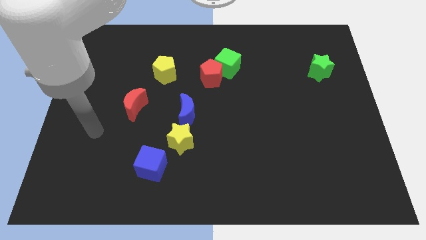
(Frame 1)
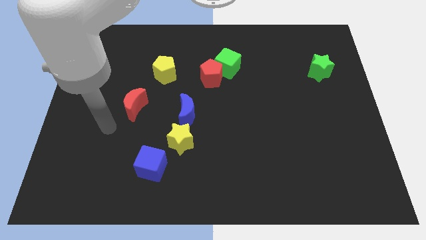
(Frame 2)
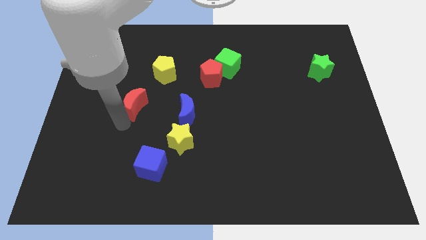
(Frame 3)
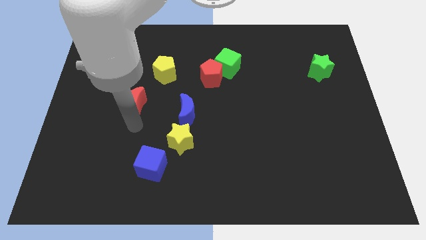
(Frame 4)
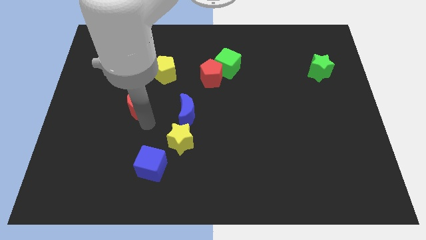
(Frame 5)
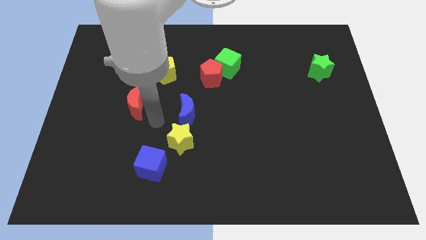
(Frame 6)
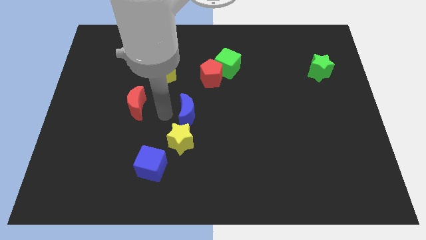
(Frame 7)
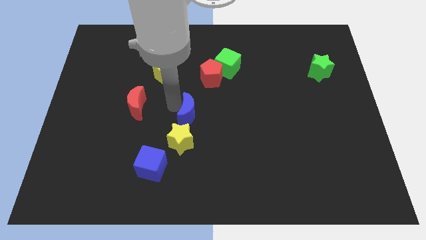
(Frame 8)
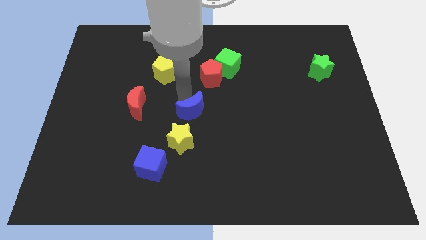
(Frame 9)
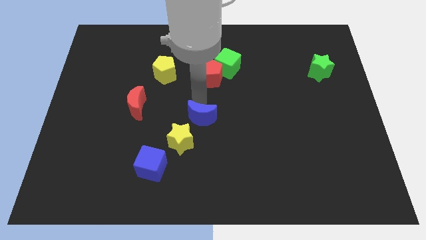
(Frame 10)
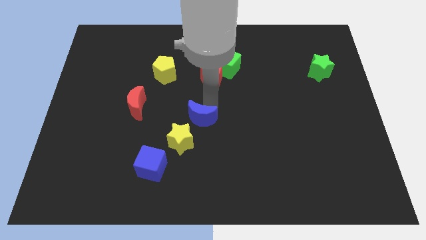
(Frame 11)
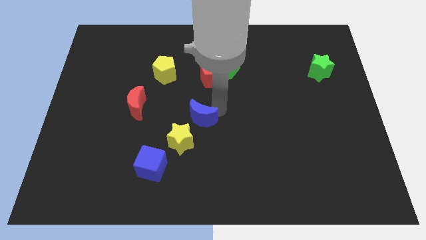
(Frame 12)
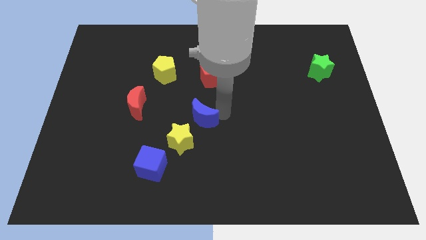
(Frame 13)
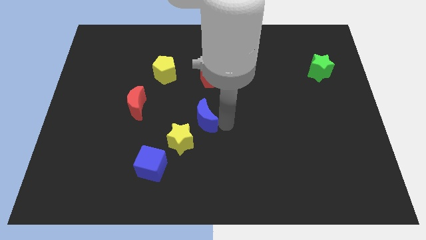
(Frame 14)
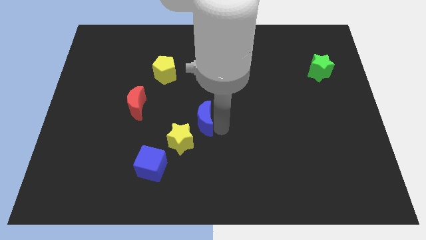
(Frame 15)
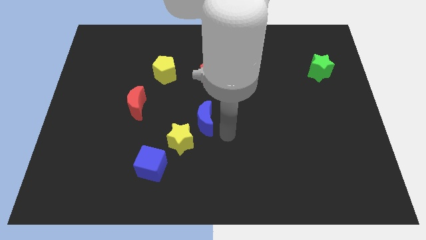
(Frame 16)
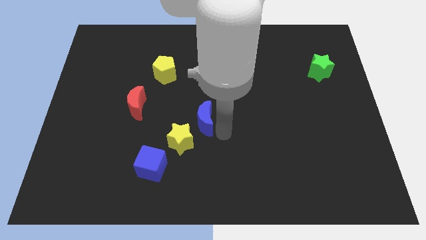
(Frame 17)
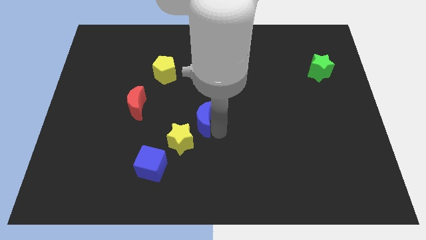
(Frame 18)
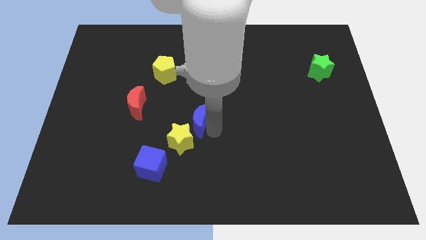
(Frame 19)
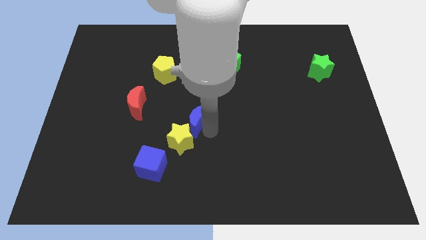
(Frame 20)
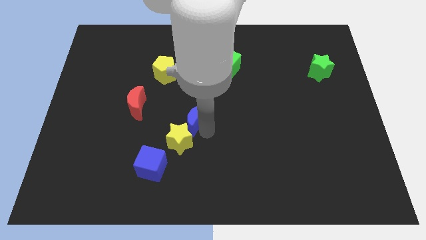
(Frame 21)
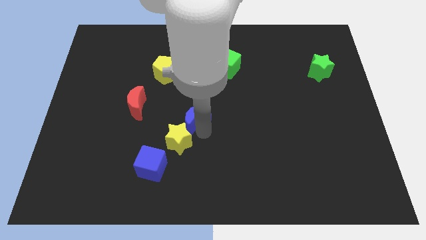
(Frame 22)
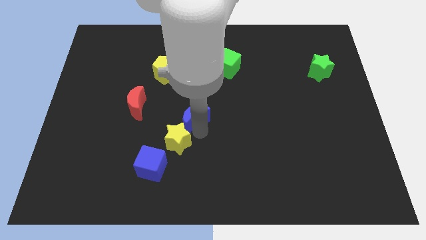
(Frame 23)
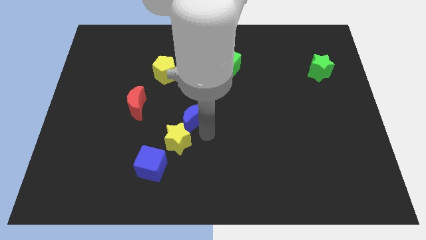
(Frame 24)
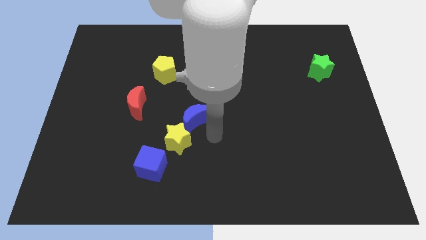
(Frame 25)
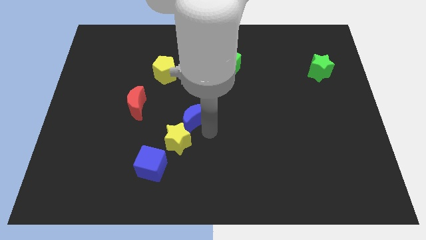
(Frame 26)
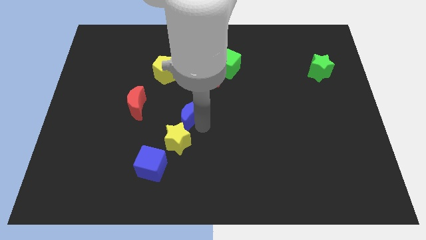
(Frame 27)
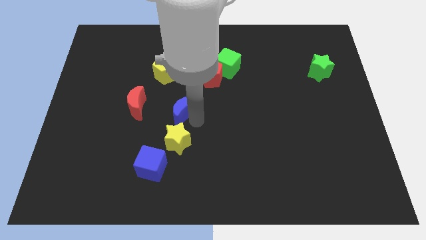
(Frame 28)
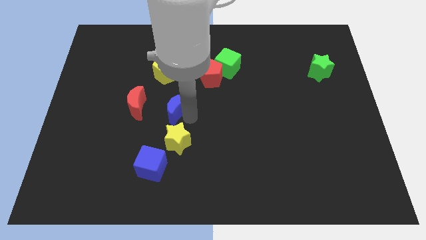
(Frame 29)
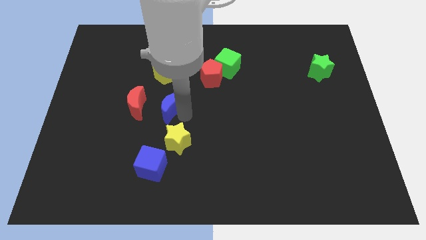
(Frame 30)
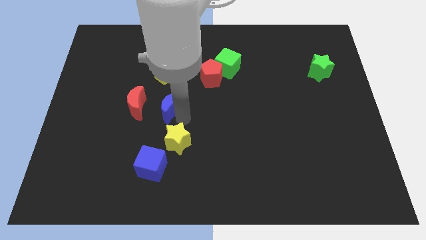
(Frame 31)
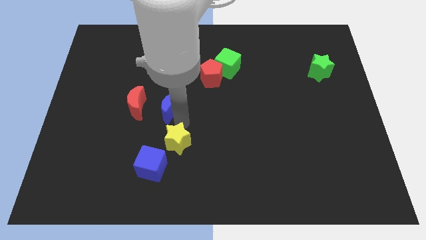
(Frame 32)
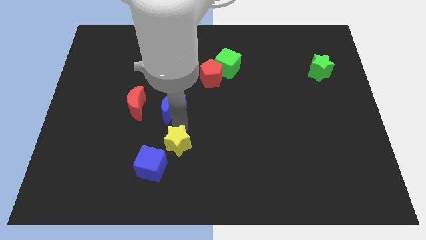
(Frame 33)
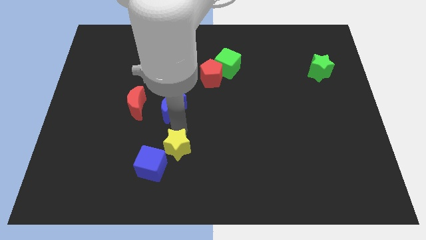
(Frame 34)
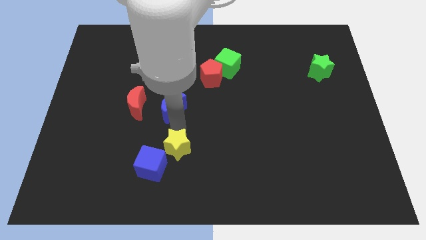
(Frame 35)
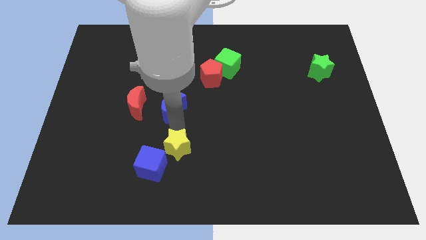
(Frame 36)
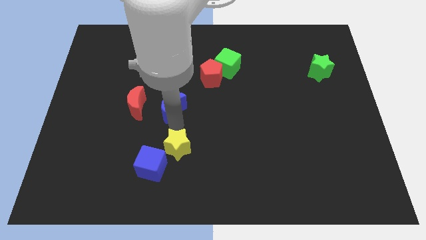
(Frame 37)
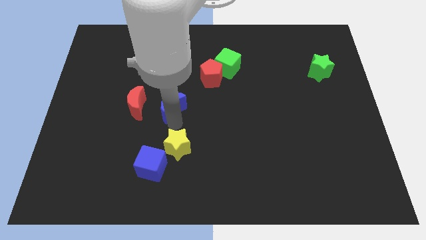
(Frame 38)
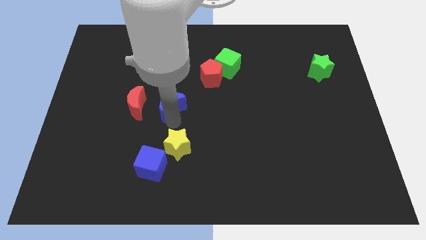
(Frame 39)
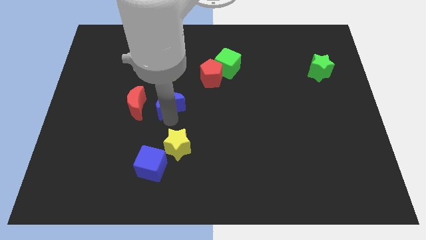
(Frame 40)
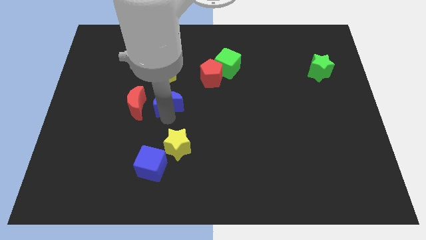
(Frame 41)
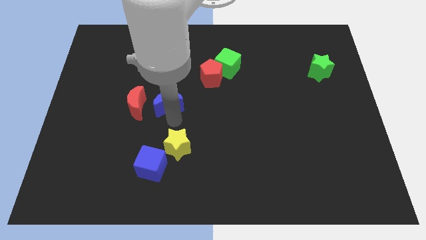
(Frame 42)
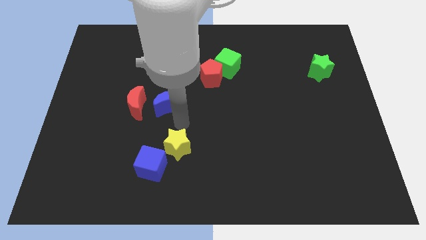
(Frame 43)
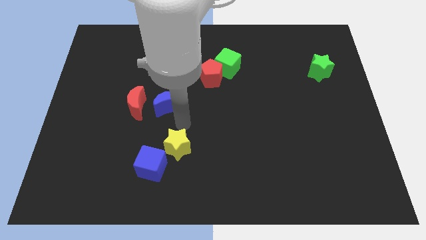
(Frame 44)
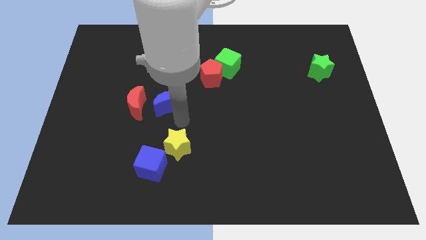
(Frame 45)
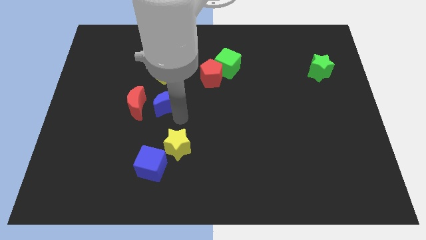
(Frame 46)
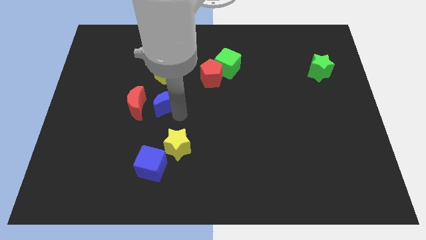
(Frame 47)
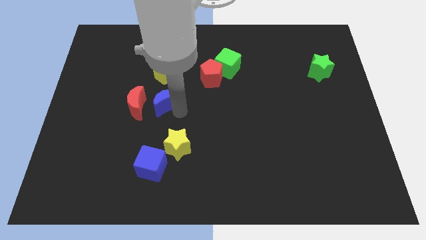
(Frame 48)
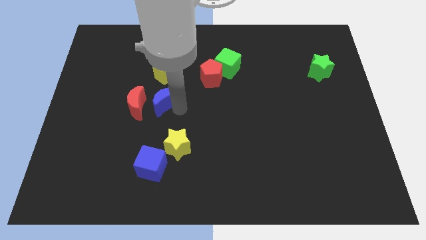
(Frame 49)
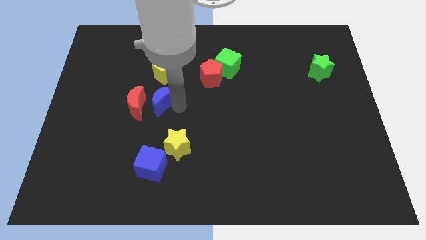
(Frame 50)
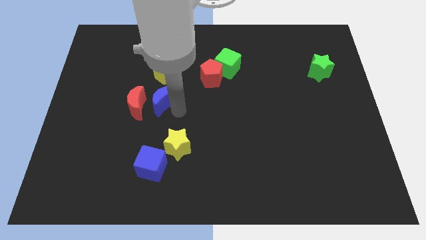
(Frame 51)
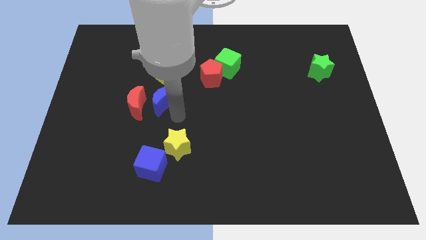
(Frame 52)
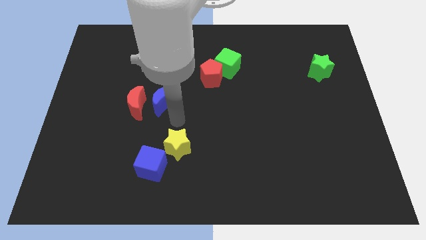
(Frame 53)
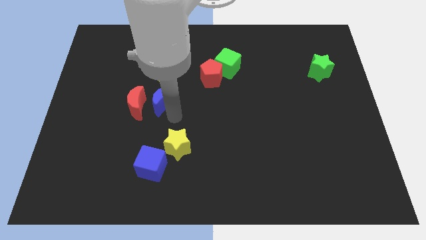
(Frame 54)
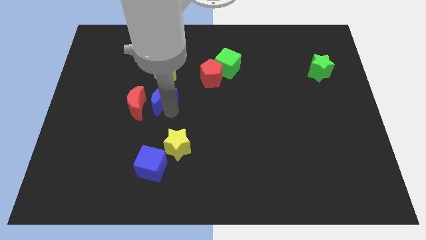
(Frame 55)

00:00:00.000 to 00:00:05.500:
slightly push the blue moon upwards and to the left diagonally

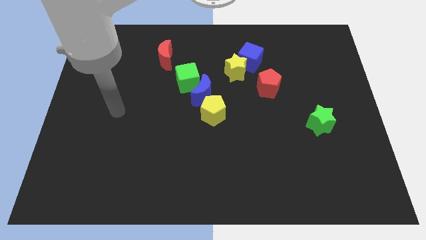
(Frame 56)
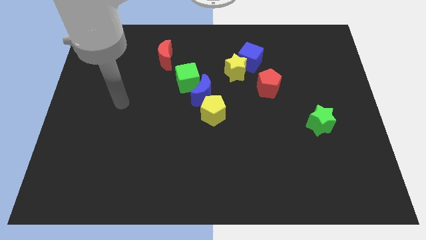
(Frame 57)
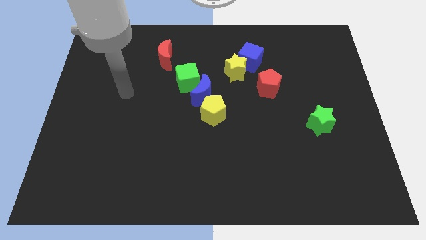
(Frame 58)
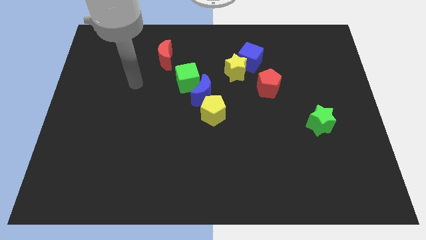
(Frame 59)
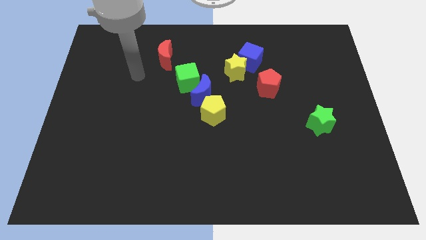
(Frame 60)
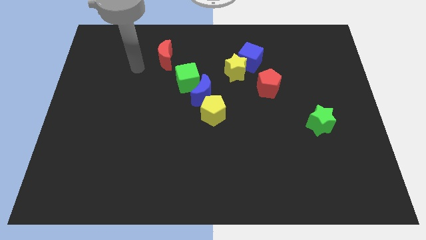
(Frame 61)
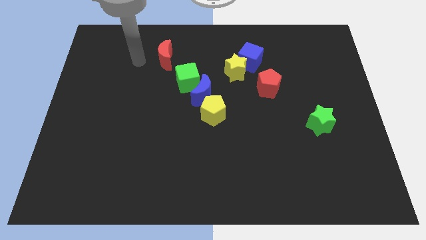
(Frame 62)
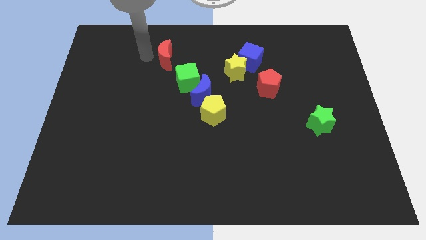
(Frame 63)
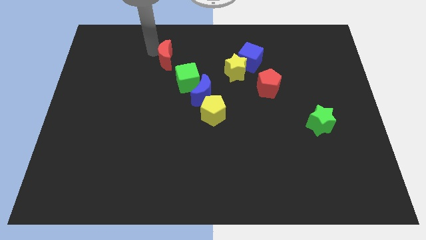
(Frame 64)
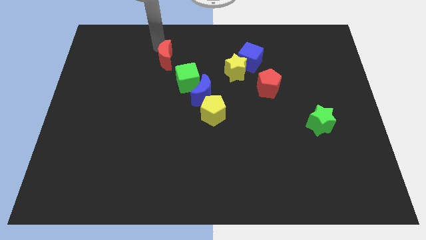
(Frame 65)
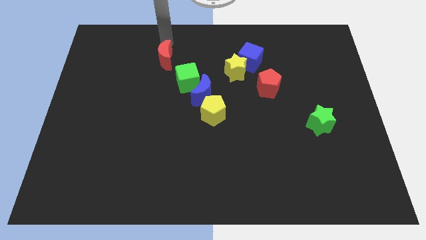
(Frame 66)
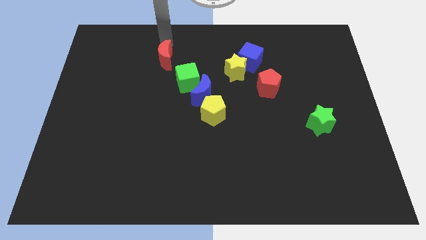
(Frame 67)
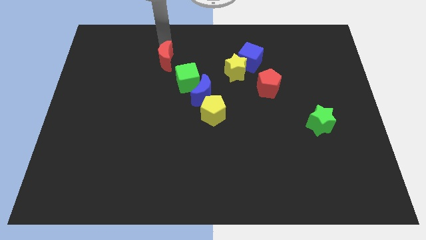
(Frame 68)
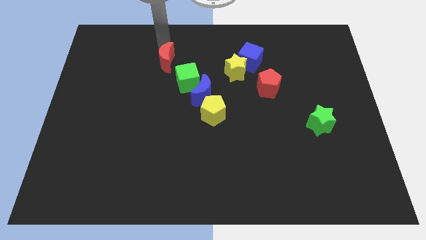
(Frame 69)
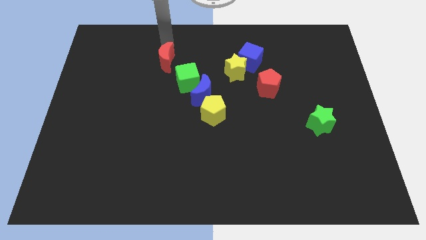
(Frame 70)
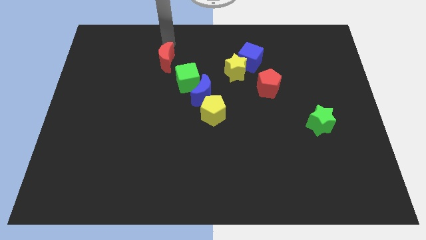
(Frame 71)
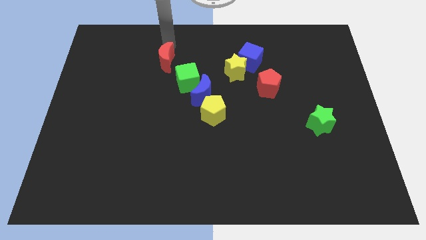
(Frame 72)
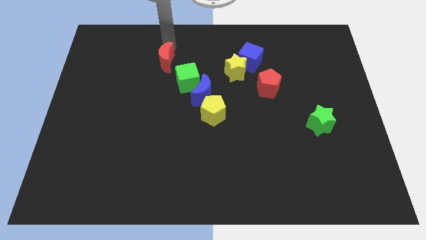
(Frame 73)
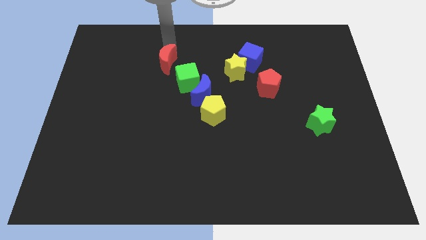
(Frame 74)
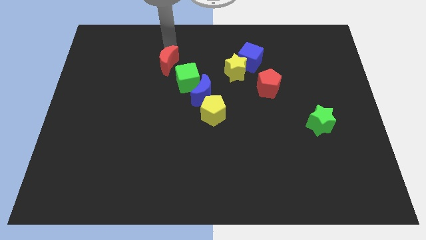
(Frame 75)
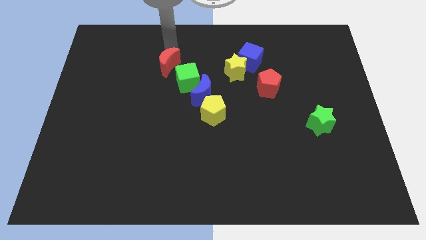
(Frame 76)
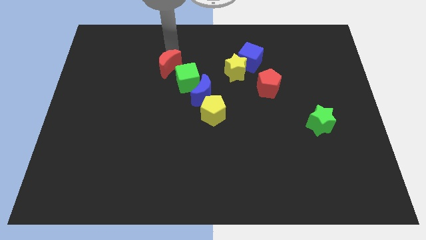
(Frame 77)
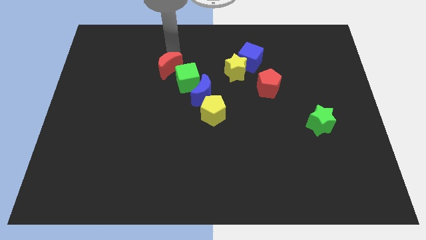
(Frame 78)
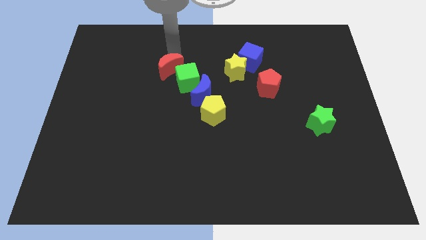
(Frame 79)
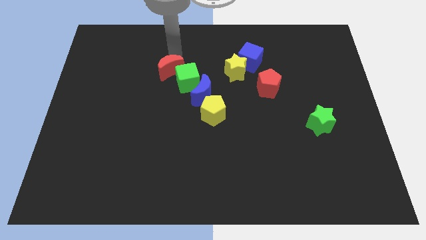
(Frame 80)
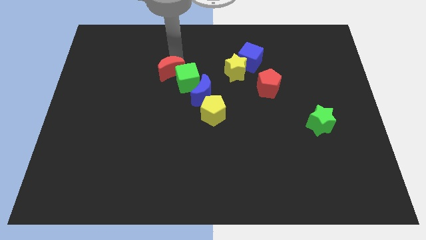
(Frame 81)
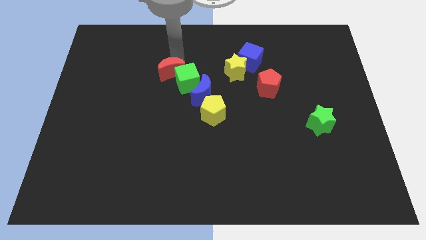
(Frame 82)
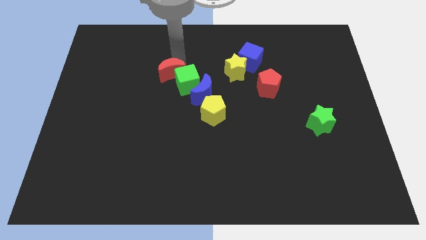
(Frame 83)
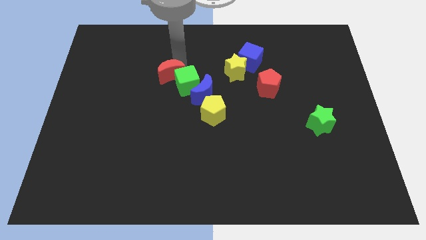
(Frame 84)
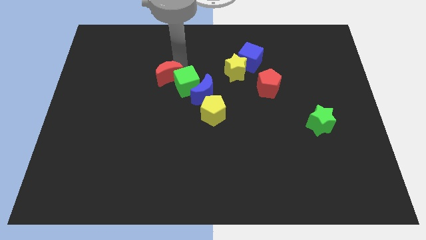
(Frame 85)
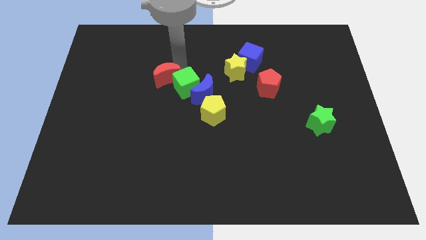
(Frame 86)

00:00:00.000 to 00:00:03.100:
slightly move the red moon down
